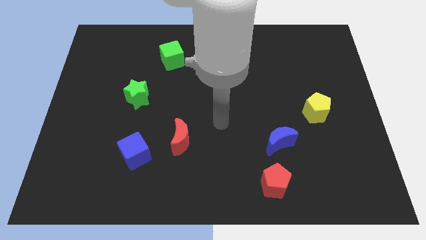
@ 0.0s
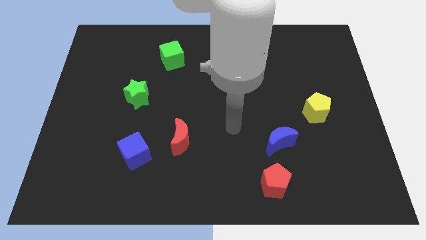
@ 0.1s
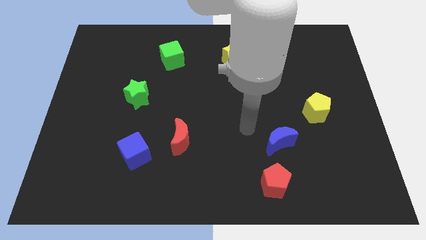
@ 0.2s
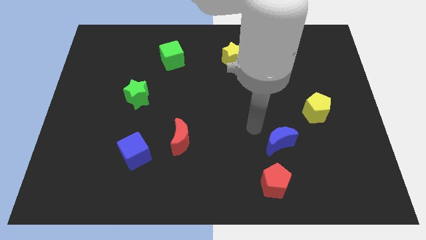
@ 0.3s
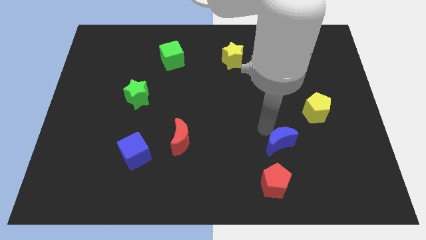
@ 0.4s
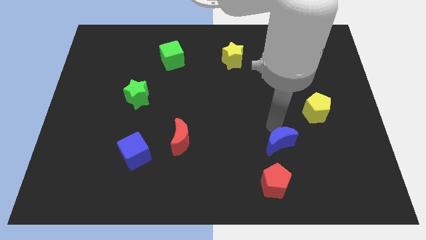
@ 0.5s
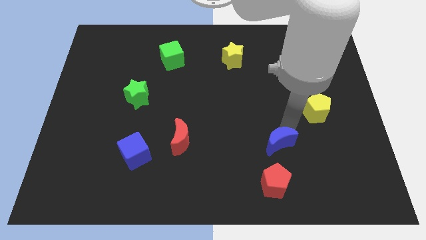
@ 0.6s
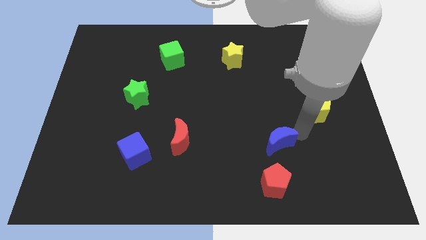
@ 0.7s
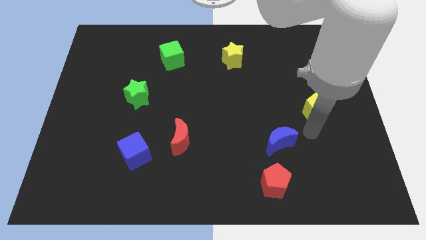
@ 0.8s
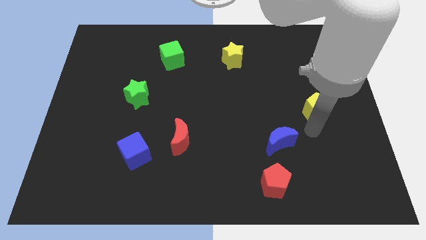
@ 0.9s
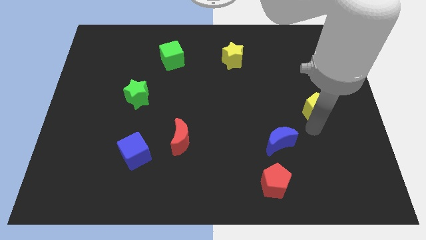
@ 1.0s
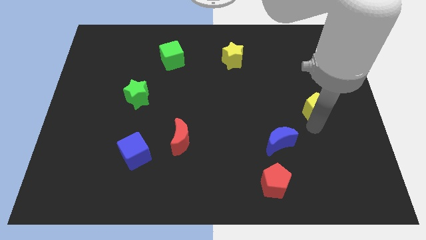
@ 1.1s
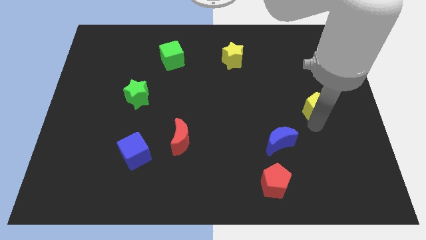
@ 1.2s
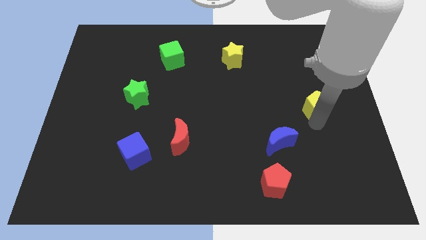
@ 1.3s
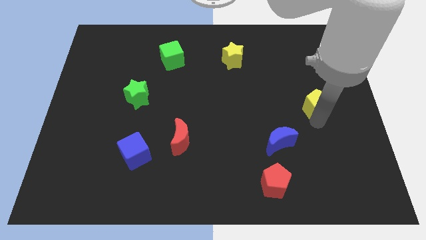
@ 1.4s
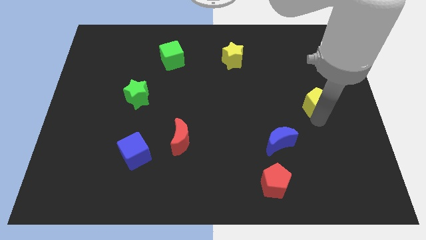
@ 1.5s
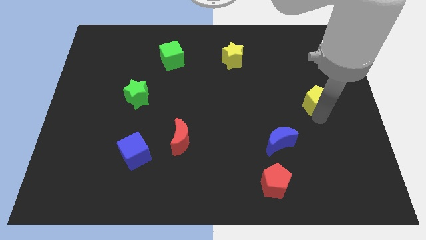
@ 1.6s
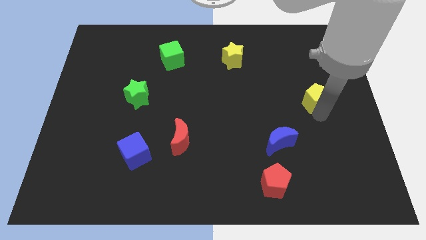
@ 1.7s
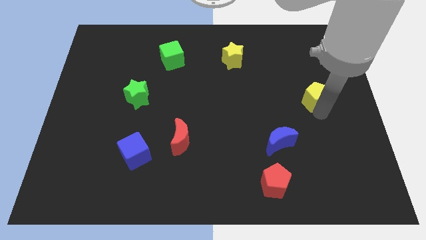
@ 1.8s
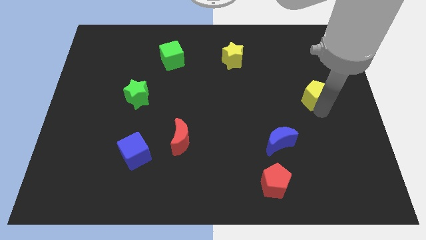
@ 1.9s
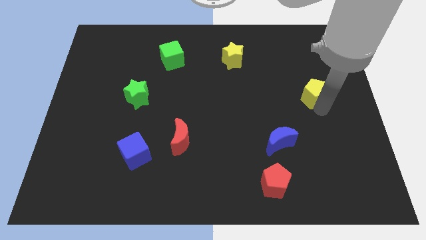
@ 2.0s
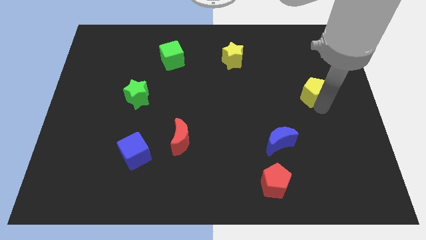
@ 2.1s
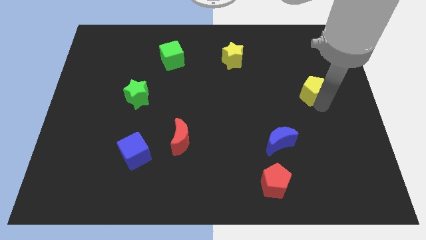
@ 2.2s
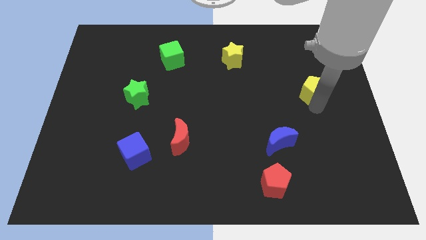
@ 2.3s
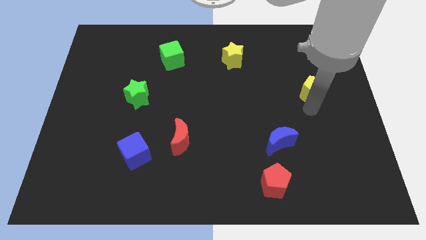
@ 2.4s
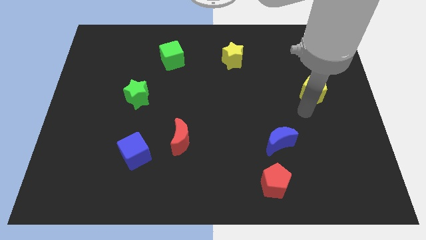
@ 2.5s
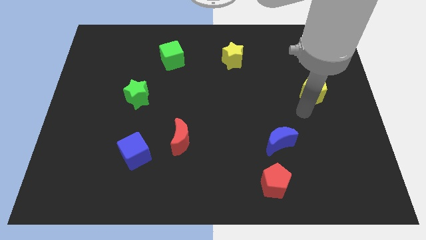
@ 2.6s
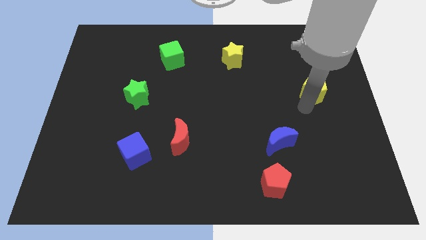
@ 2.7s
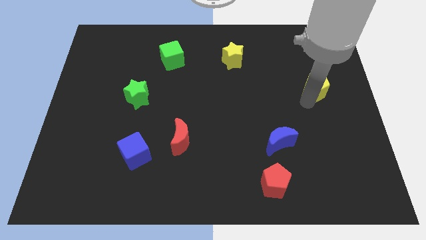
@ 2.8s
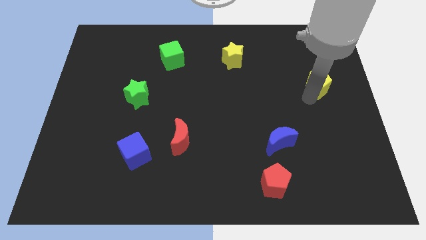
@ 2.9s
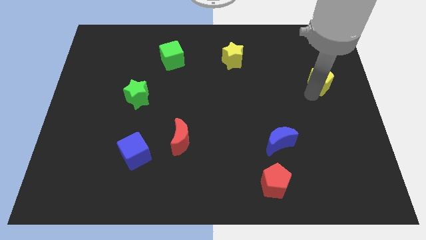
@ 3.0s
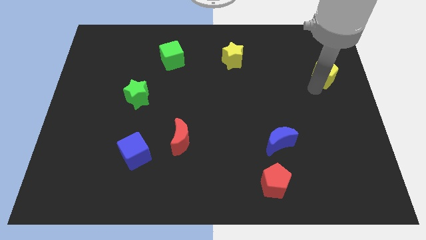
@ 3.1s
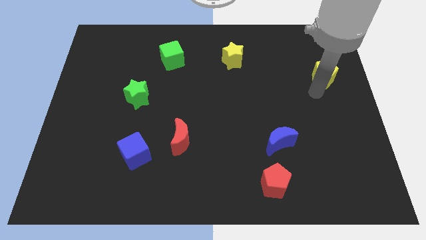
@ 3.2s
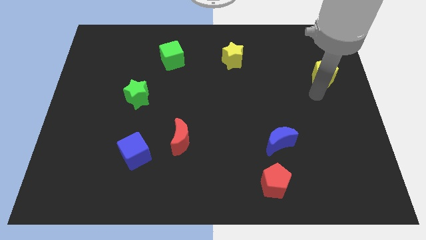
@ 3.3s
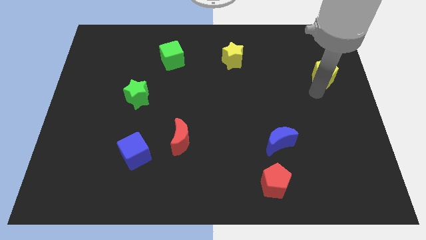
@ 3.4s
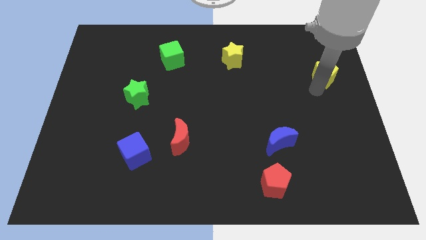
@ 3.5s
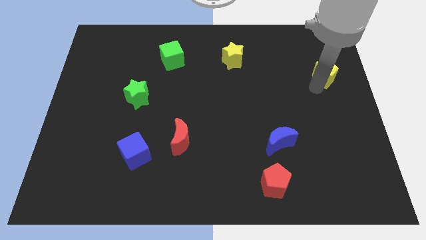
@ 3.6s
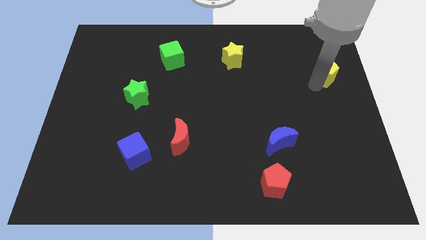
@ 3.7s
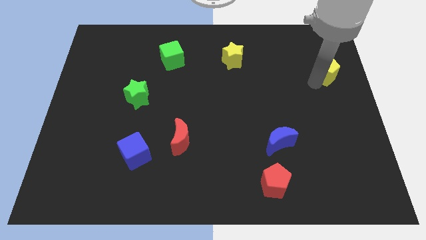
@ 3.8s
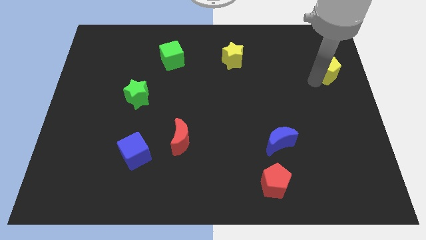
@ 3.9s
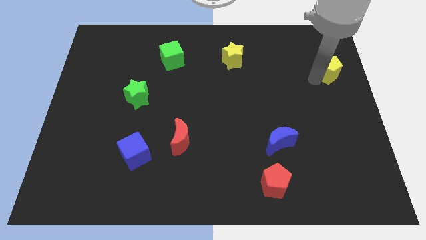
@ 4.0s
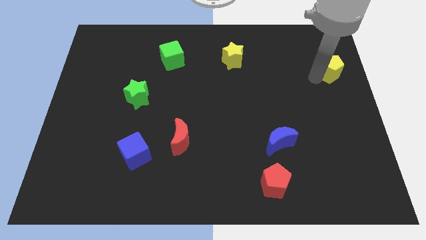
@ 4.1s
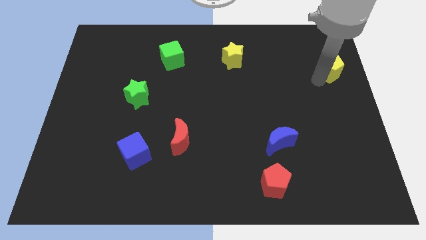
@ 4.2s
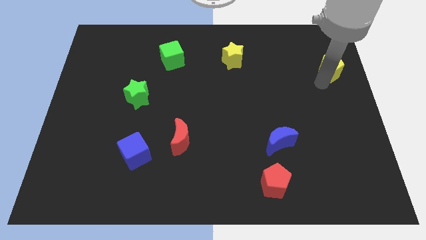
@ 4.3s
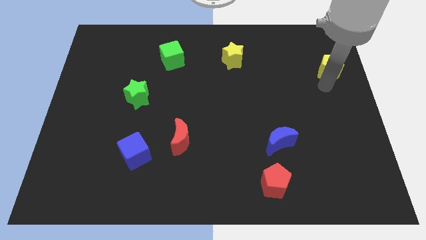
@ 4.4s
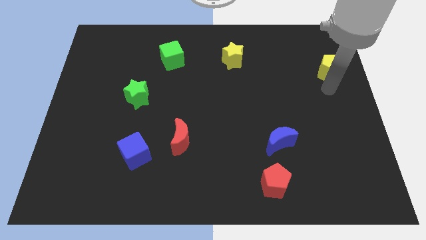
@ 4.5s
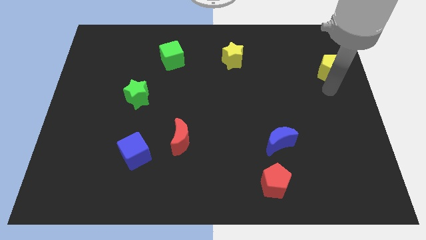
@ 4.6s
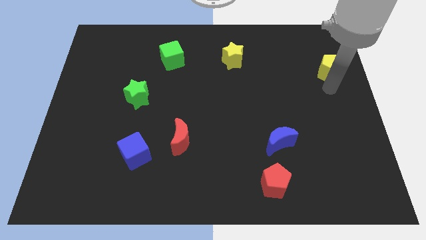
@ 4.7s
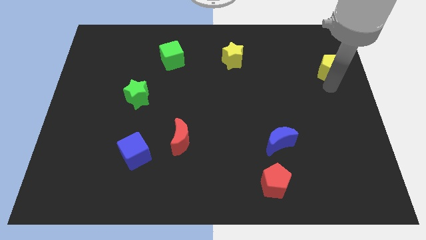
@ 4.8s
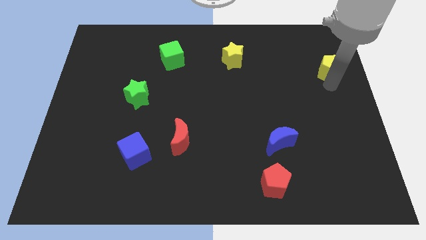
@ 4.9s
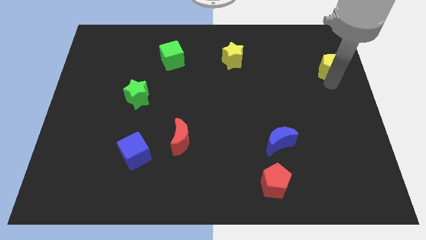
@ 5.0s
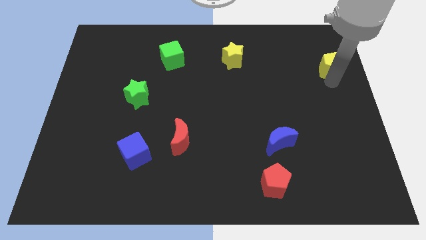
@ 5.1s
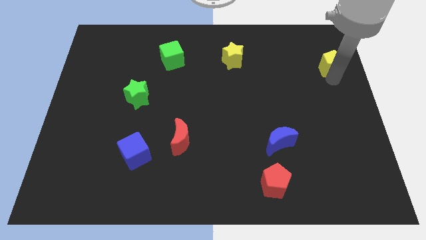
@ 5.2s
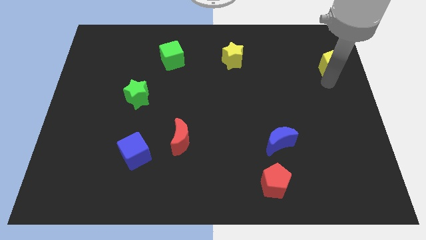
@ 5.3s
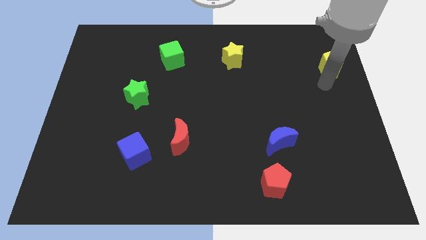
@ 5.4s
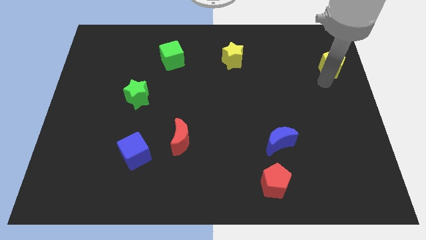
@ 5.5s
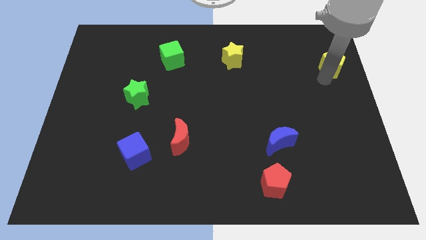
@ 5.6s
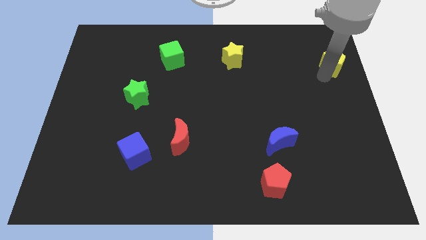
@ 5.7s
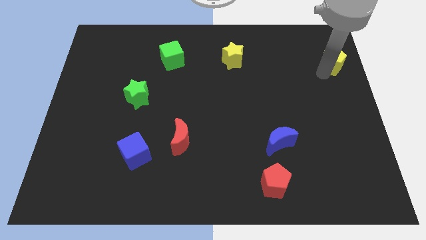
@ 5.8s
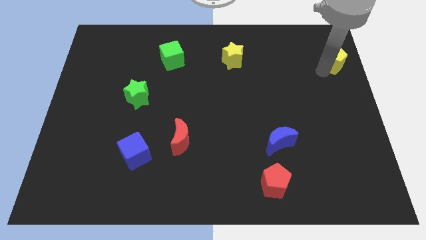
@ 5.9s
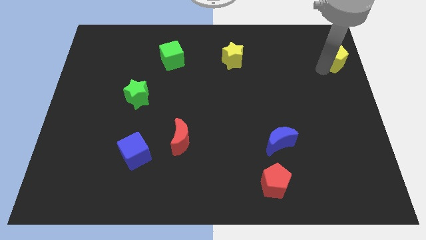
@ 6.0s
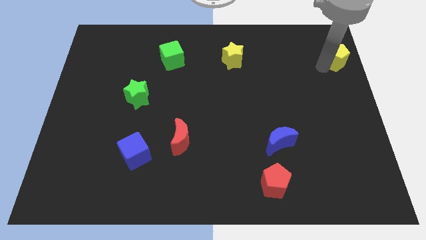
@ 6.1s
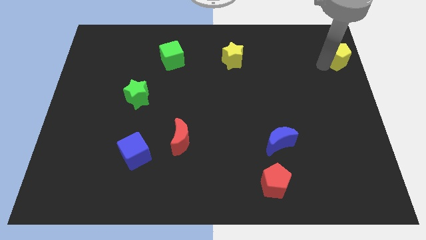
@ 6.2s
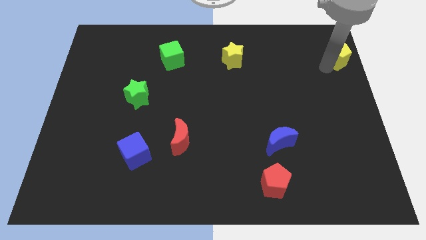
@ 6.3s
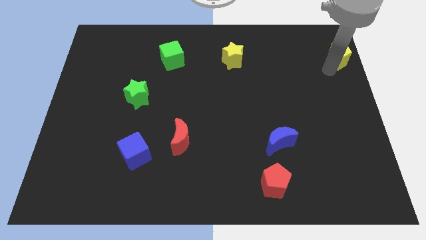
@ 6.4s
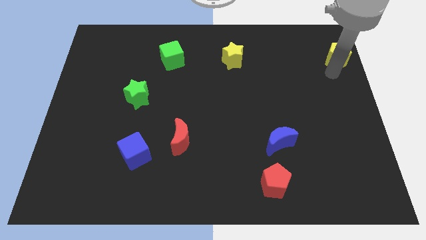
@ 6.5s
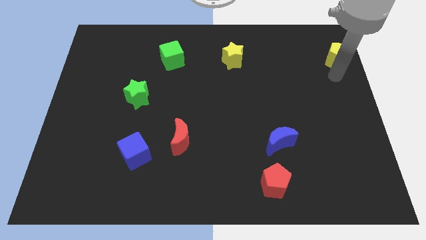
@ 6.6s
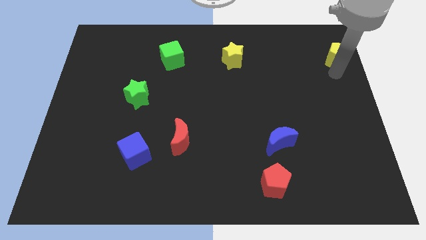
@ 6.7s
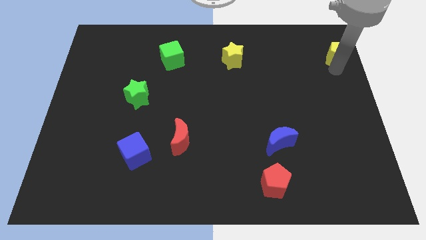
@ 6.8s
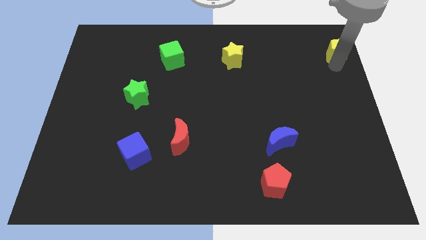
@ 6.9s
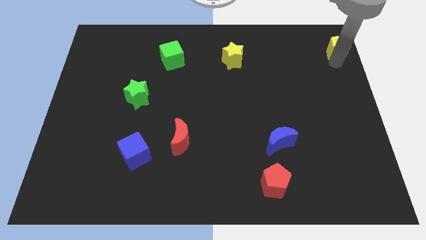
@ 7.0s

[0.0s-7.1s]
slide the yellow pentagon to the upper right corner
